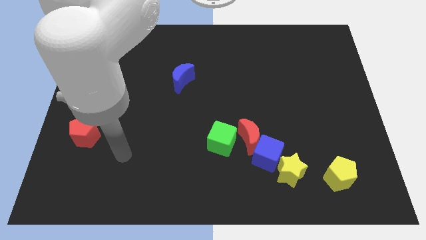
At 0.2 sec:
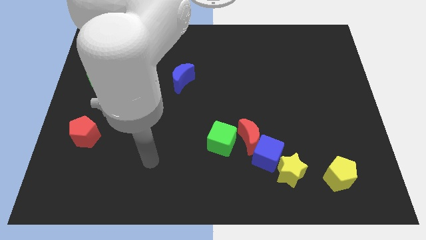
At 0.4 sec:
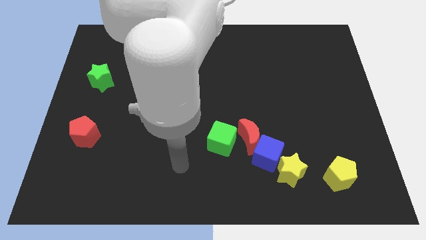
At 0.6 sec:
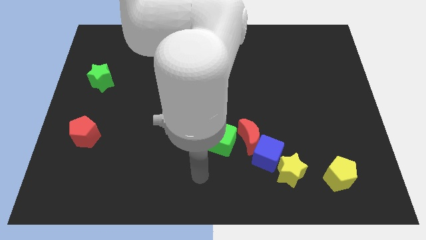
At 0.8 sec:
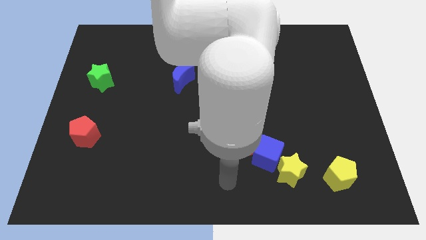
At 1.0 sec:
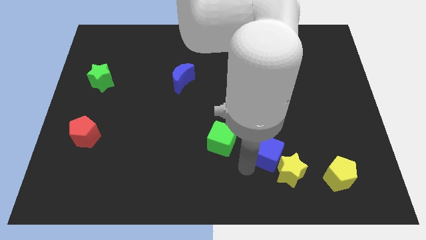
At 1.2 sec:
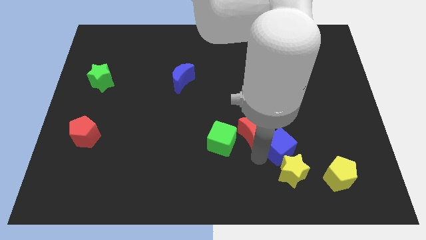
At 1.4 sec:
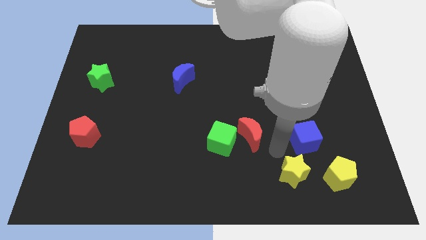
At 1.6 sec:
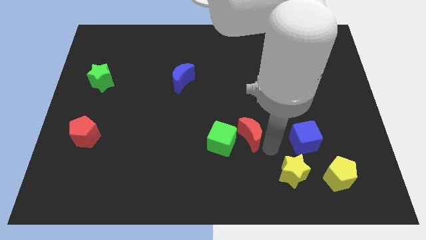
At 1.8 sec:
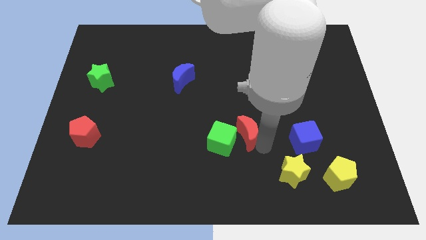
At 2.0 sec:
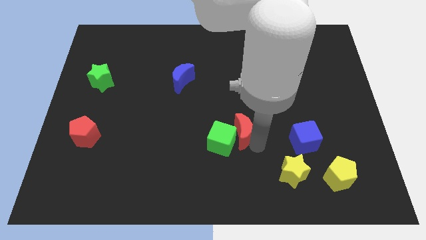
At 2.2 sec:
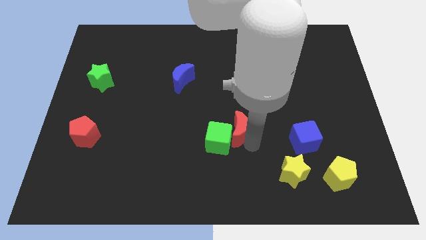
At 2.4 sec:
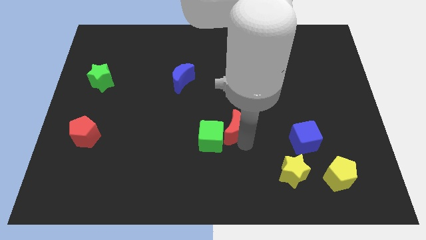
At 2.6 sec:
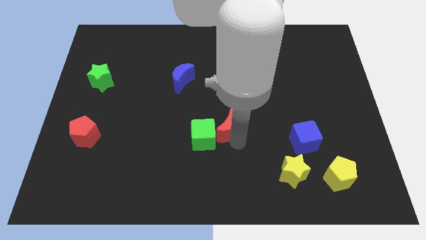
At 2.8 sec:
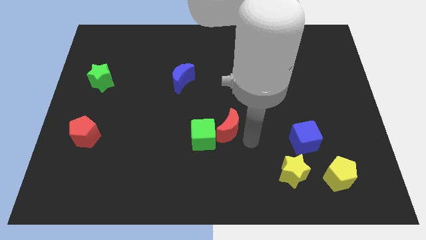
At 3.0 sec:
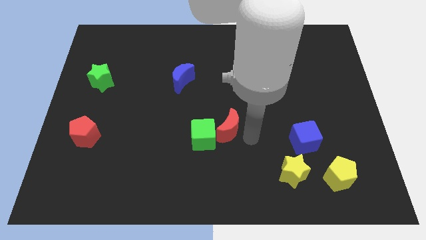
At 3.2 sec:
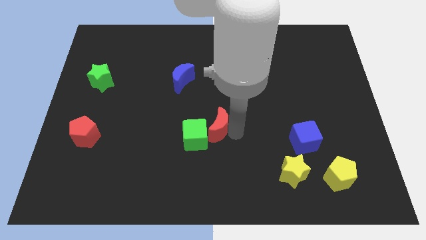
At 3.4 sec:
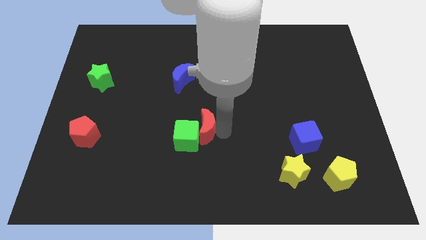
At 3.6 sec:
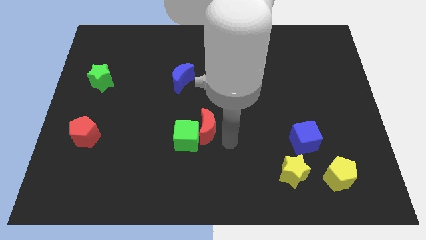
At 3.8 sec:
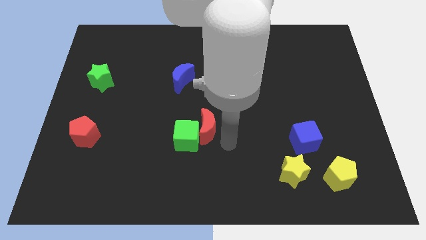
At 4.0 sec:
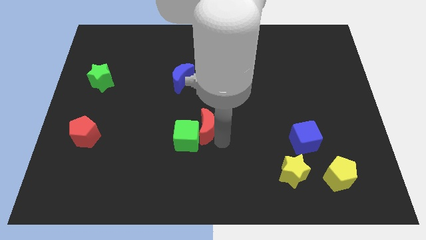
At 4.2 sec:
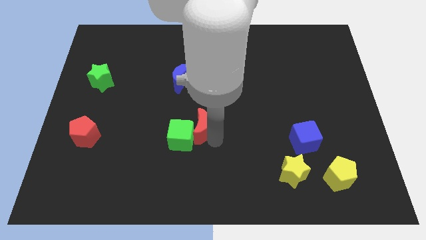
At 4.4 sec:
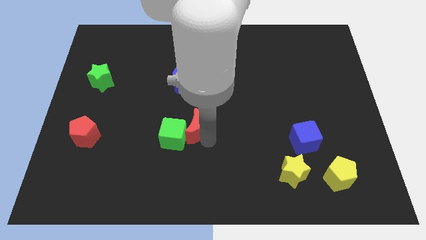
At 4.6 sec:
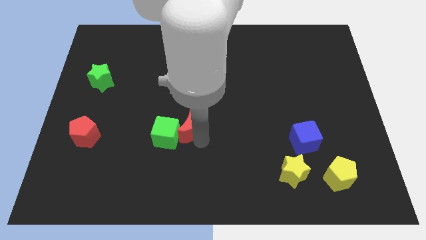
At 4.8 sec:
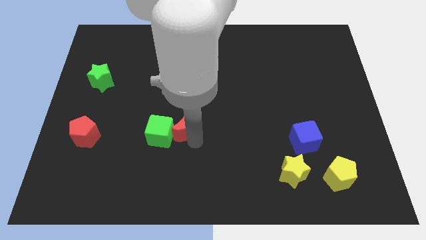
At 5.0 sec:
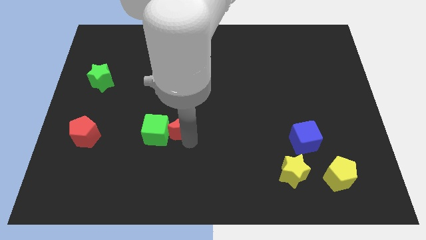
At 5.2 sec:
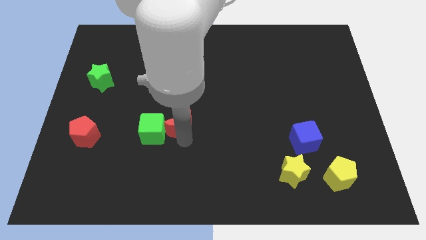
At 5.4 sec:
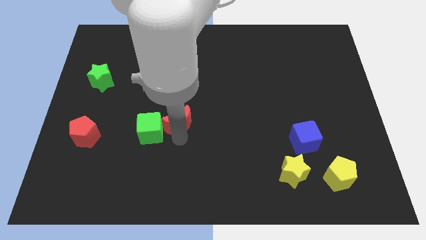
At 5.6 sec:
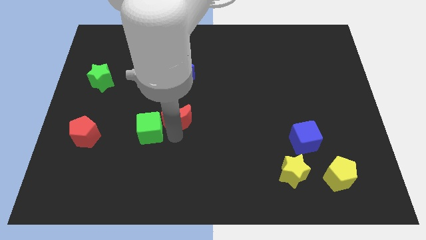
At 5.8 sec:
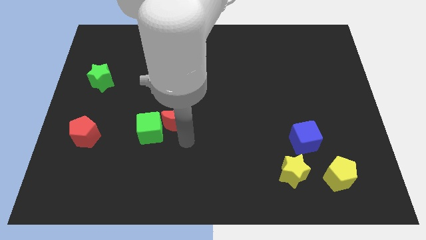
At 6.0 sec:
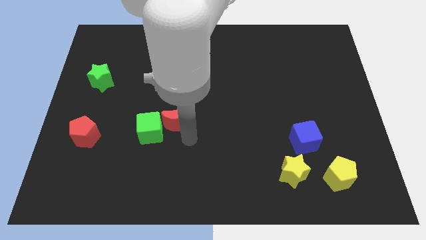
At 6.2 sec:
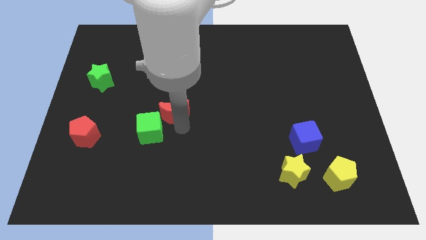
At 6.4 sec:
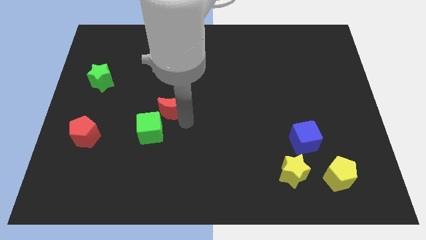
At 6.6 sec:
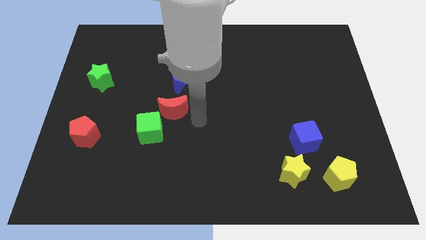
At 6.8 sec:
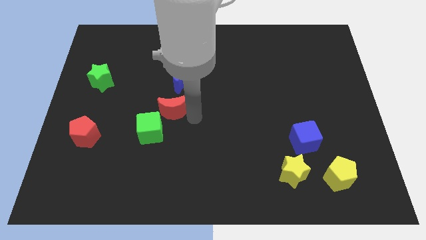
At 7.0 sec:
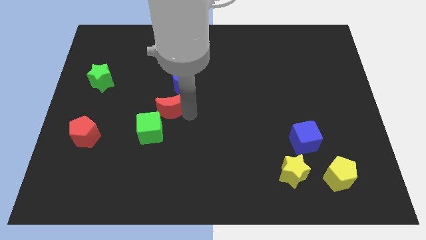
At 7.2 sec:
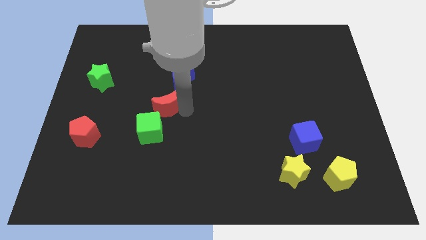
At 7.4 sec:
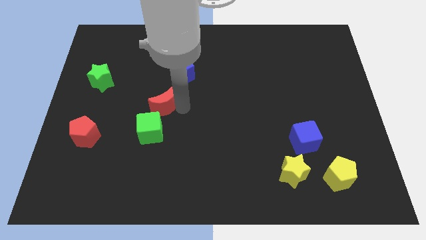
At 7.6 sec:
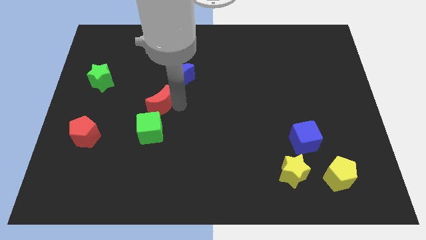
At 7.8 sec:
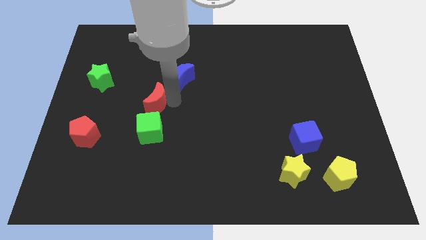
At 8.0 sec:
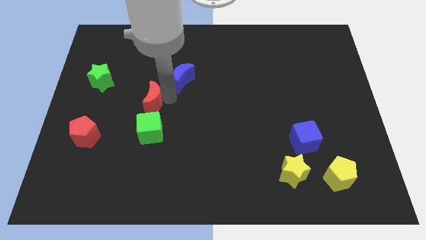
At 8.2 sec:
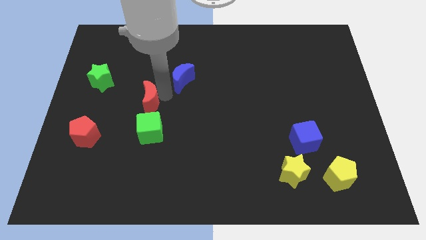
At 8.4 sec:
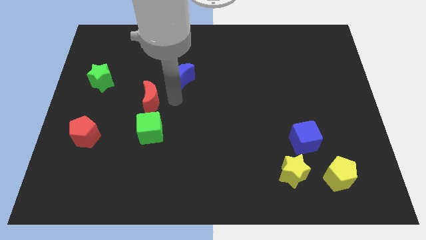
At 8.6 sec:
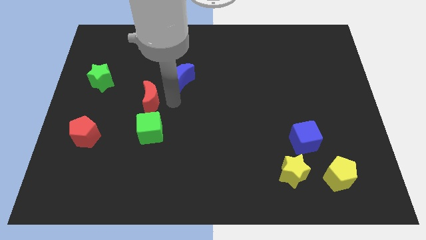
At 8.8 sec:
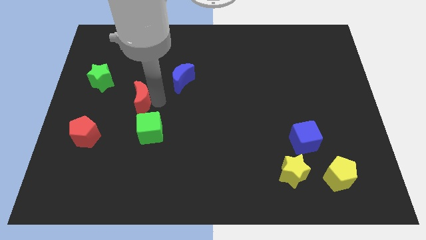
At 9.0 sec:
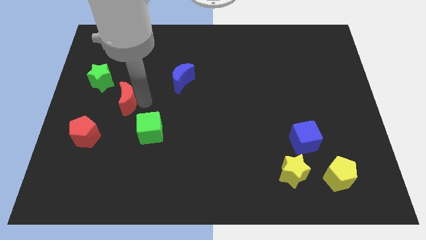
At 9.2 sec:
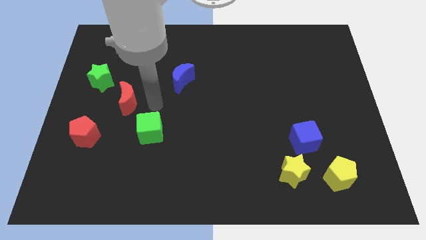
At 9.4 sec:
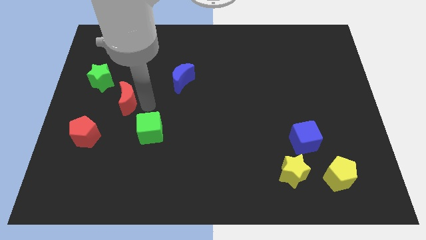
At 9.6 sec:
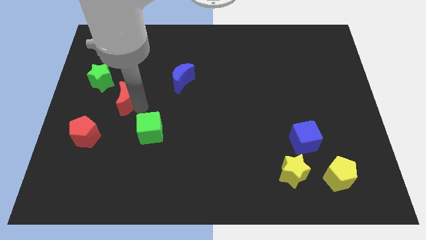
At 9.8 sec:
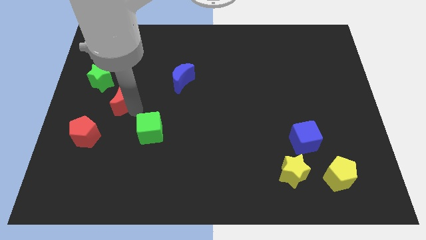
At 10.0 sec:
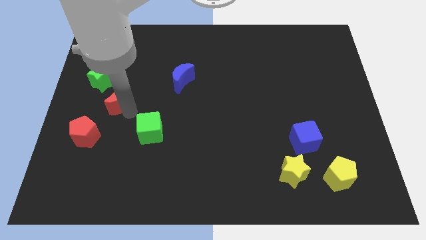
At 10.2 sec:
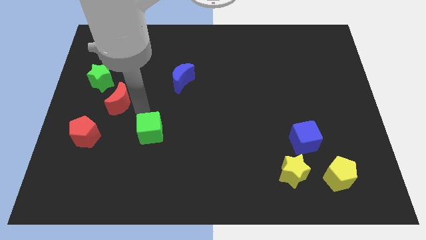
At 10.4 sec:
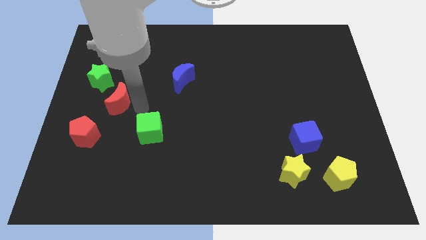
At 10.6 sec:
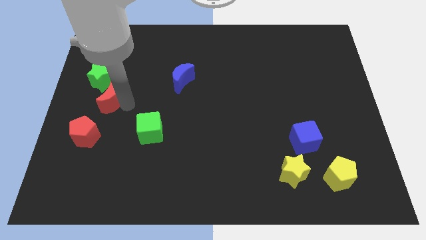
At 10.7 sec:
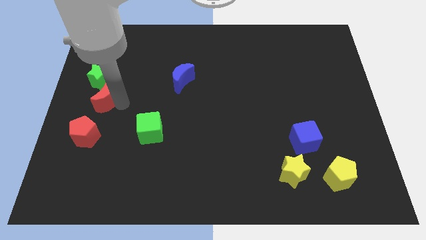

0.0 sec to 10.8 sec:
push the red moon to the left side
